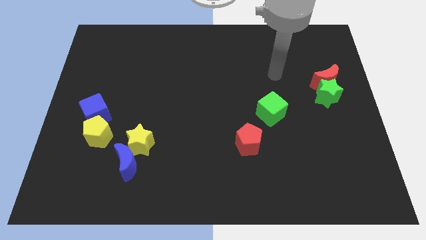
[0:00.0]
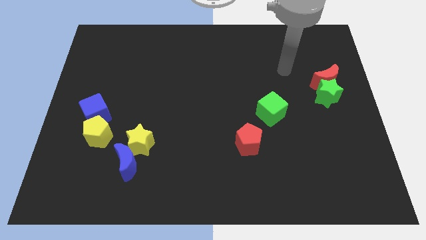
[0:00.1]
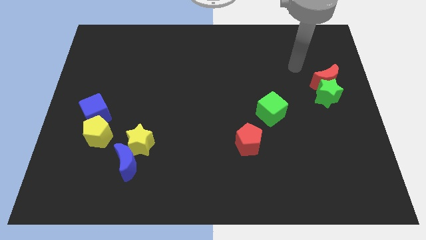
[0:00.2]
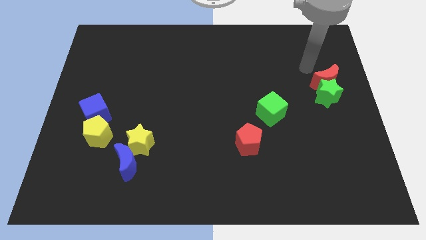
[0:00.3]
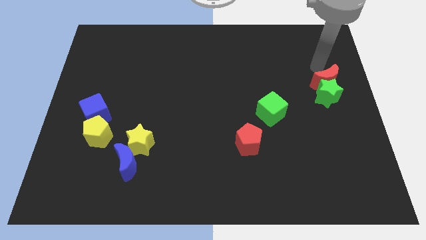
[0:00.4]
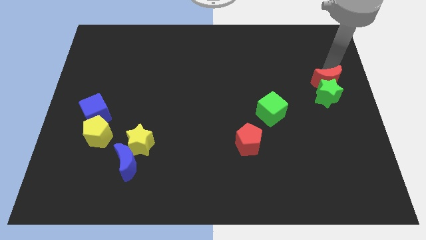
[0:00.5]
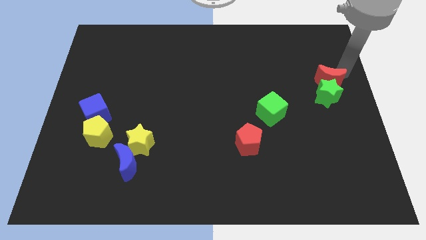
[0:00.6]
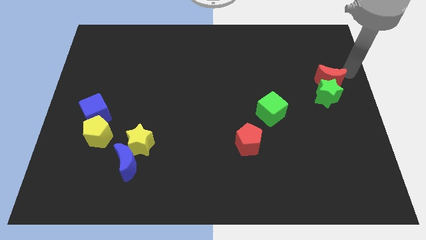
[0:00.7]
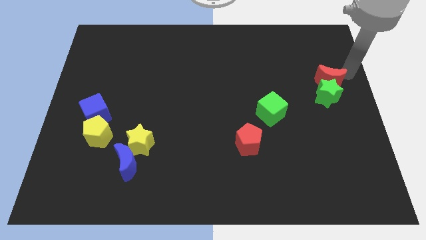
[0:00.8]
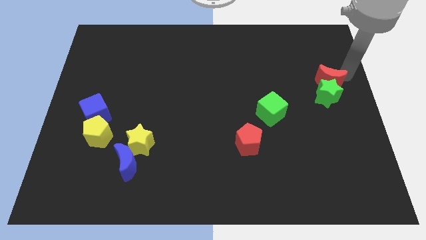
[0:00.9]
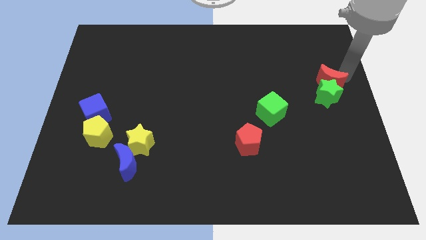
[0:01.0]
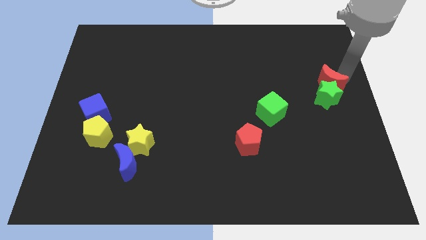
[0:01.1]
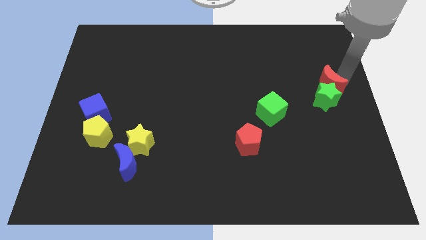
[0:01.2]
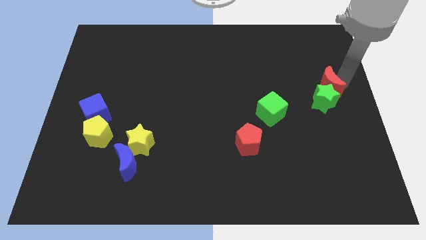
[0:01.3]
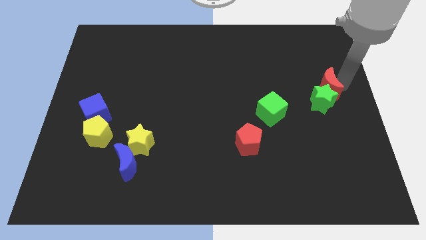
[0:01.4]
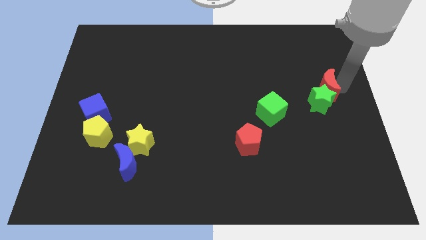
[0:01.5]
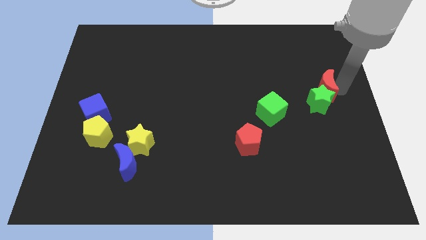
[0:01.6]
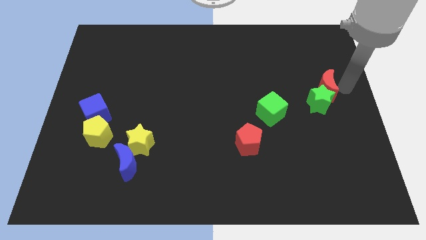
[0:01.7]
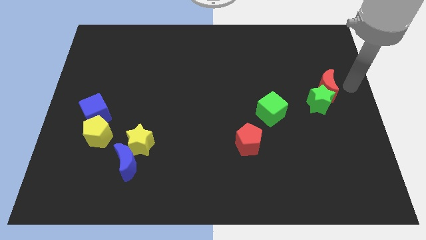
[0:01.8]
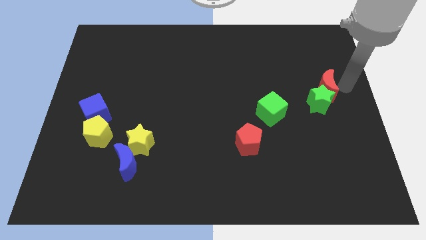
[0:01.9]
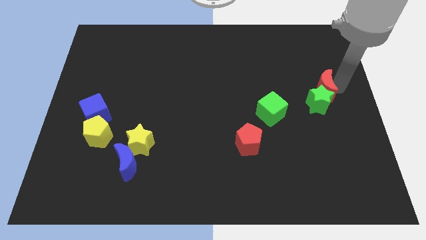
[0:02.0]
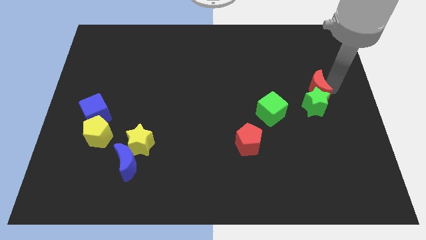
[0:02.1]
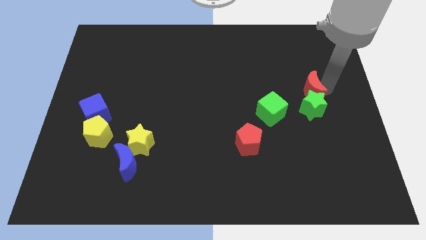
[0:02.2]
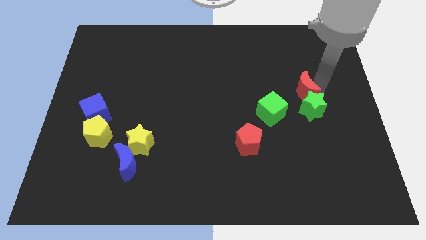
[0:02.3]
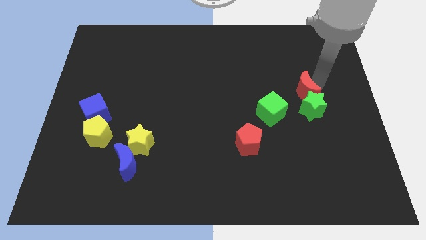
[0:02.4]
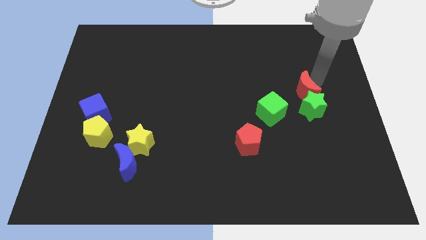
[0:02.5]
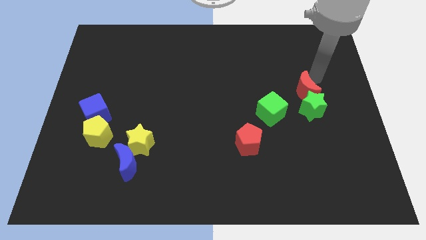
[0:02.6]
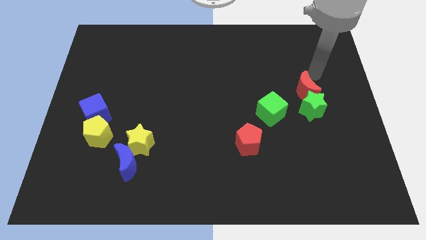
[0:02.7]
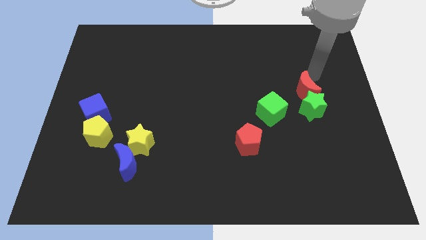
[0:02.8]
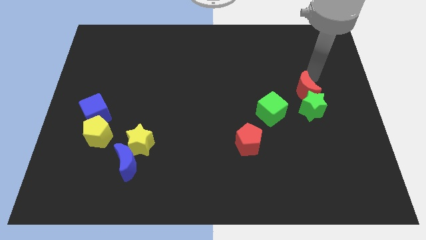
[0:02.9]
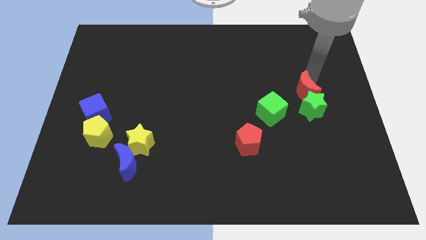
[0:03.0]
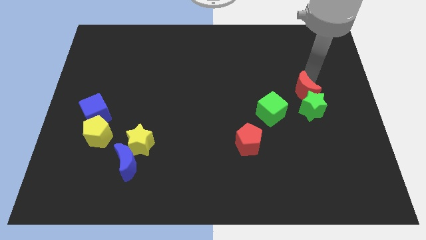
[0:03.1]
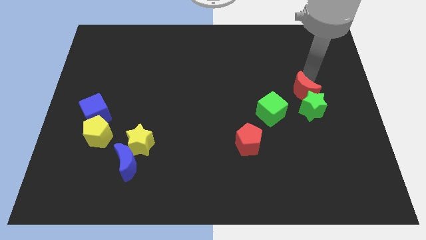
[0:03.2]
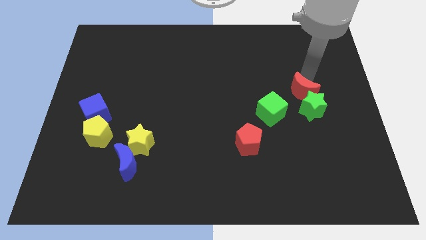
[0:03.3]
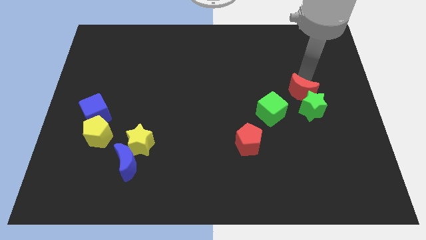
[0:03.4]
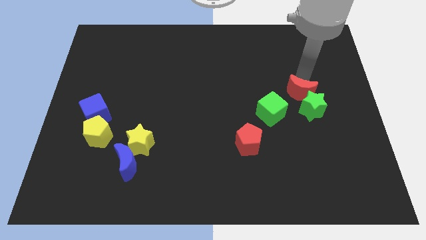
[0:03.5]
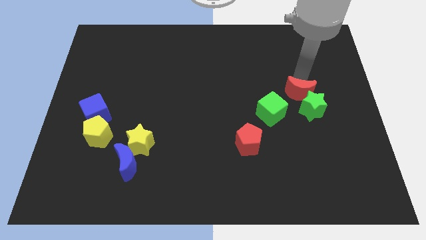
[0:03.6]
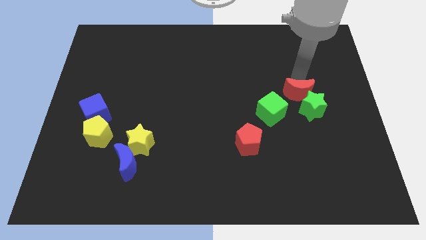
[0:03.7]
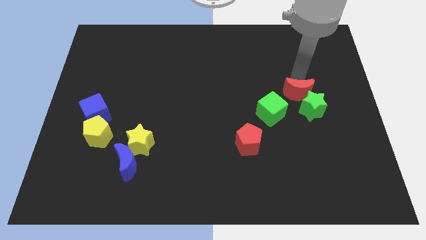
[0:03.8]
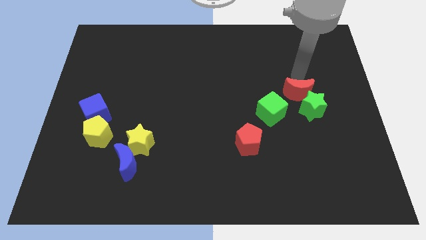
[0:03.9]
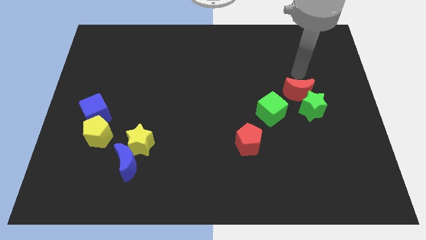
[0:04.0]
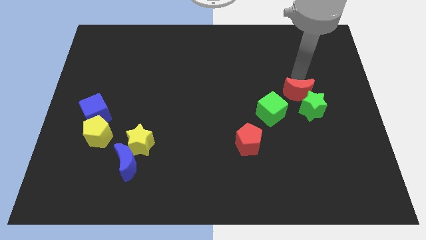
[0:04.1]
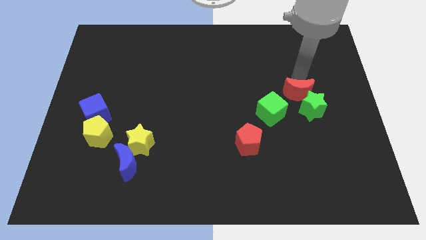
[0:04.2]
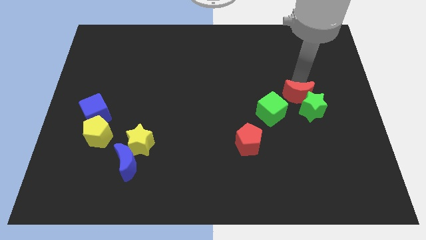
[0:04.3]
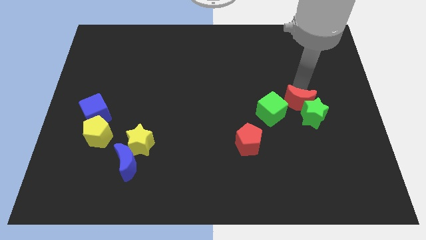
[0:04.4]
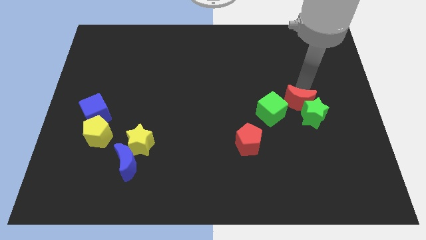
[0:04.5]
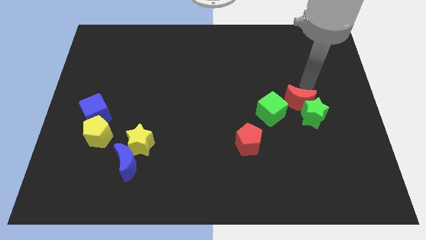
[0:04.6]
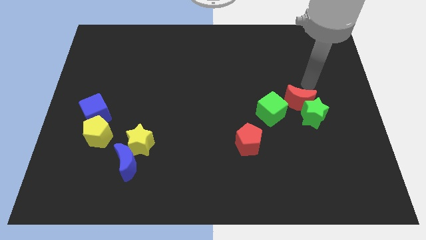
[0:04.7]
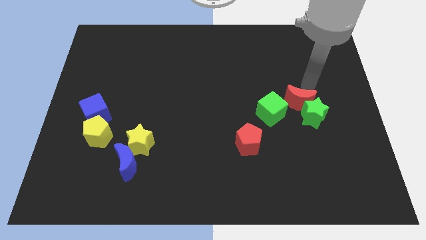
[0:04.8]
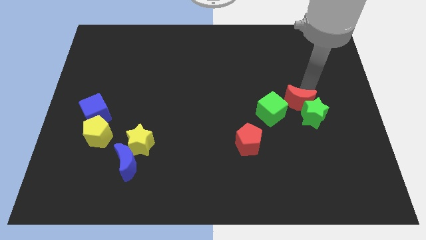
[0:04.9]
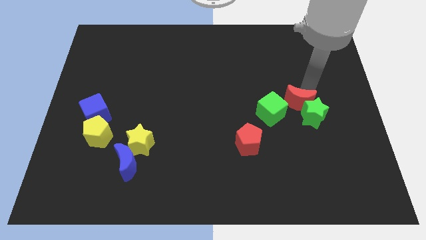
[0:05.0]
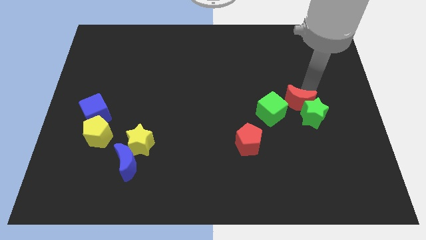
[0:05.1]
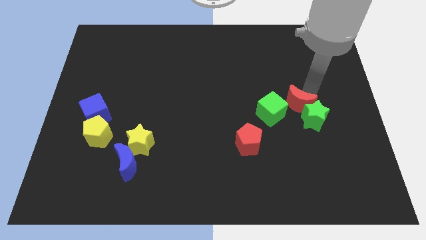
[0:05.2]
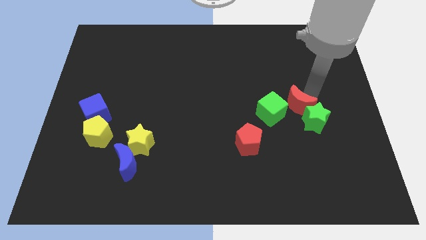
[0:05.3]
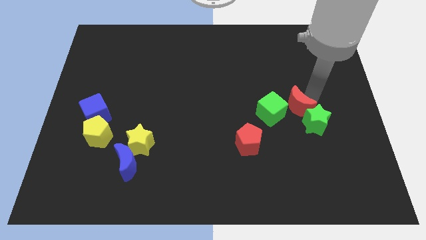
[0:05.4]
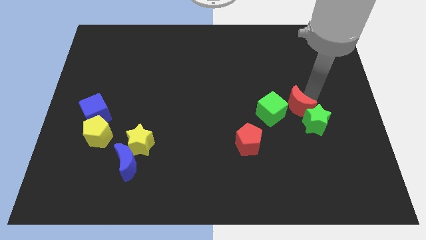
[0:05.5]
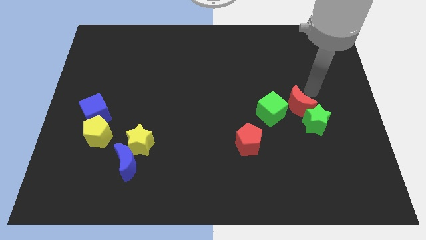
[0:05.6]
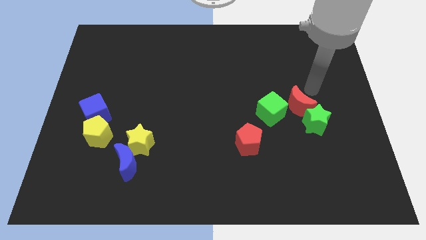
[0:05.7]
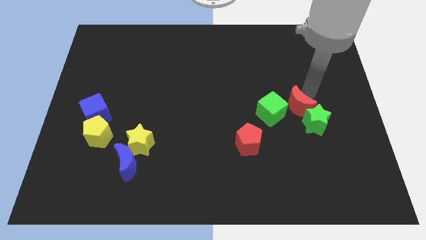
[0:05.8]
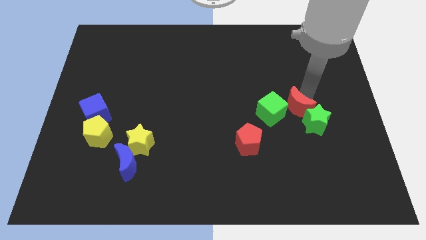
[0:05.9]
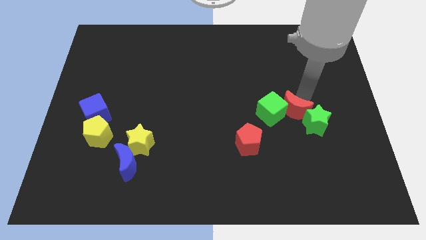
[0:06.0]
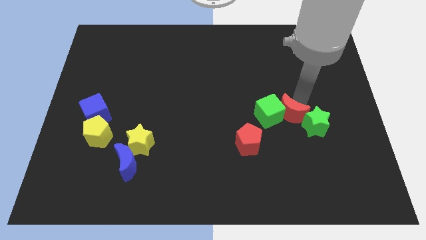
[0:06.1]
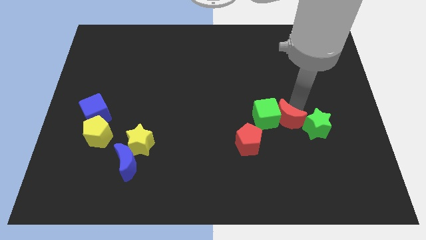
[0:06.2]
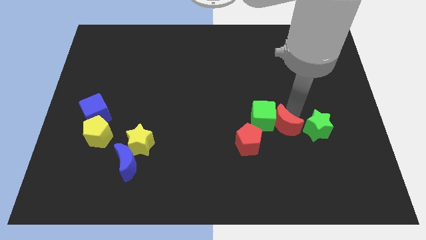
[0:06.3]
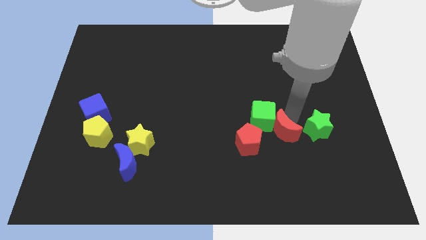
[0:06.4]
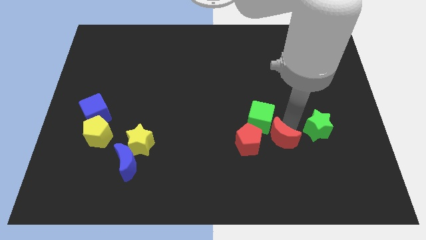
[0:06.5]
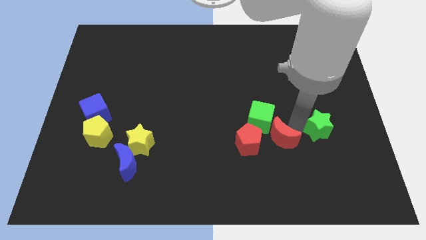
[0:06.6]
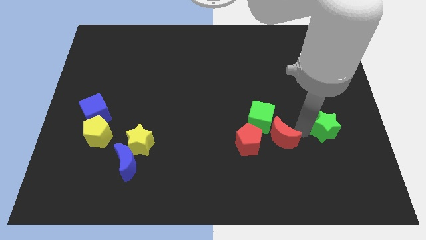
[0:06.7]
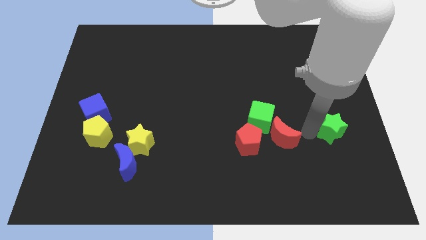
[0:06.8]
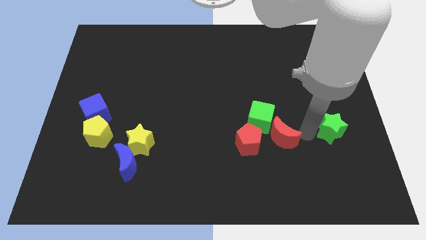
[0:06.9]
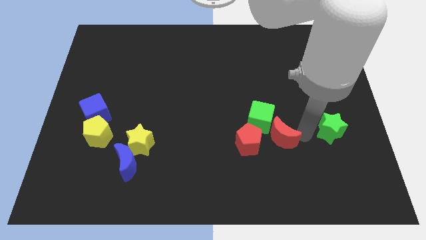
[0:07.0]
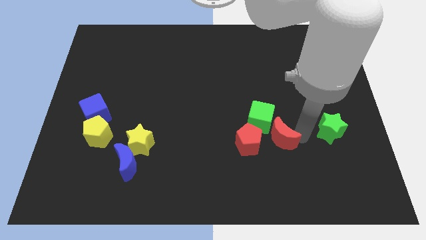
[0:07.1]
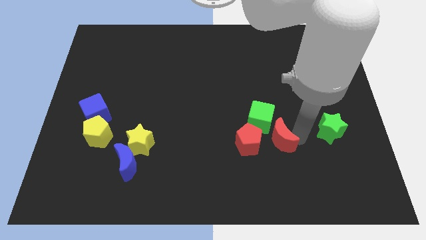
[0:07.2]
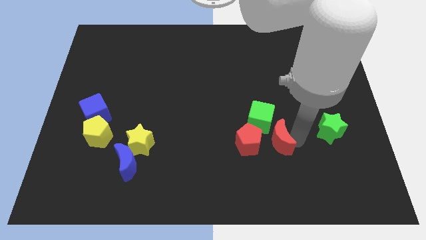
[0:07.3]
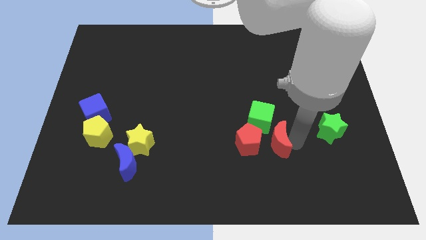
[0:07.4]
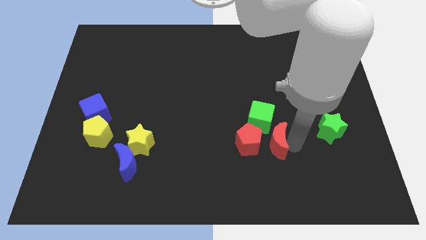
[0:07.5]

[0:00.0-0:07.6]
push the red moon to the red pentagon
